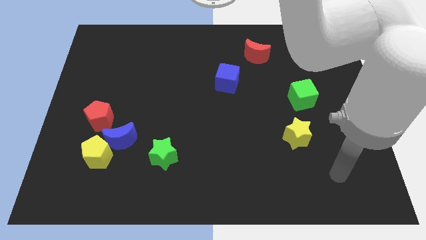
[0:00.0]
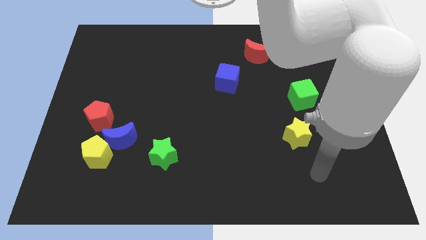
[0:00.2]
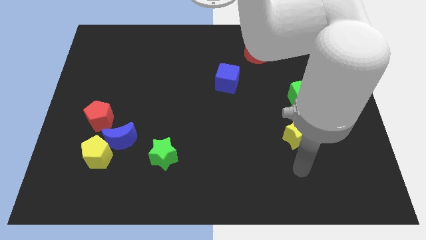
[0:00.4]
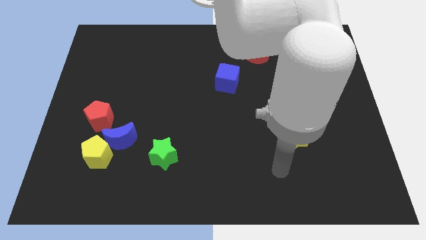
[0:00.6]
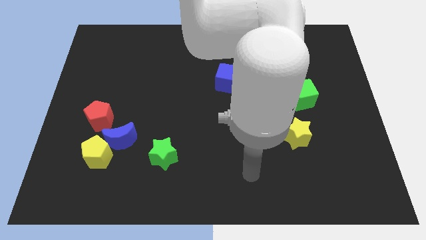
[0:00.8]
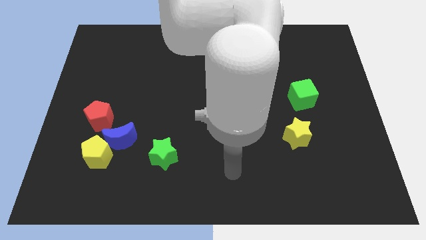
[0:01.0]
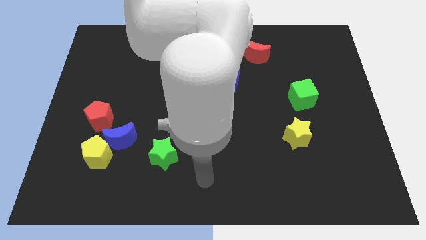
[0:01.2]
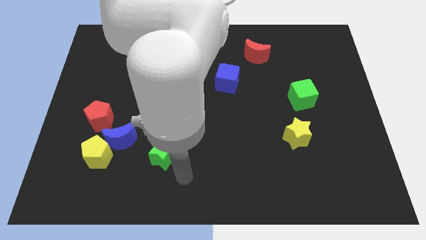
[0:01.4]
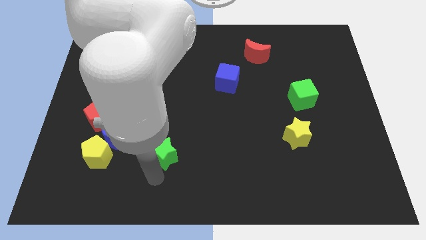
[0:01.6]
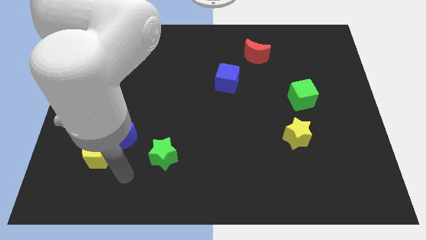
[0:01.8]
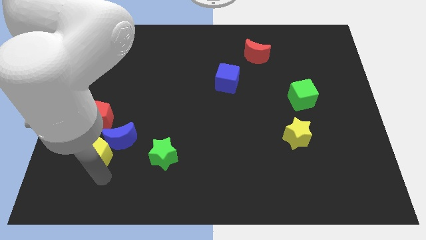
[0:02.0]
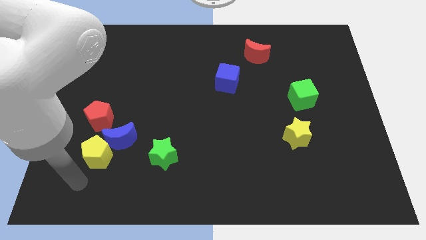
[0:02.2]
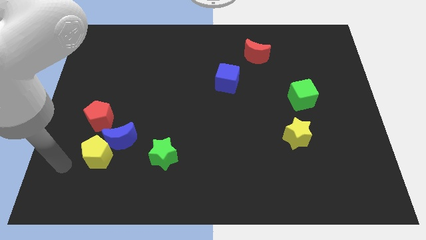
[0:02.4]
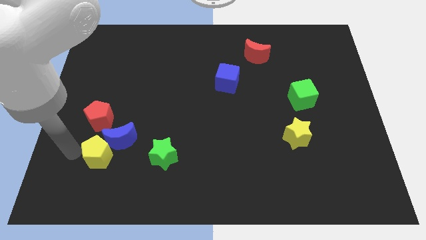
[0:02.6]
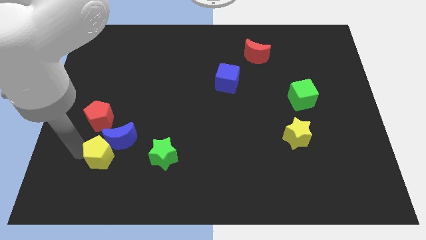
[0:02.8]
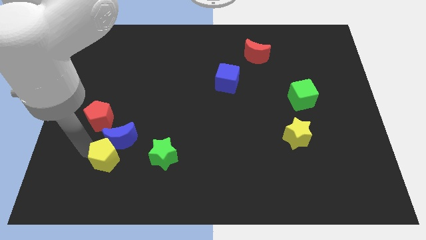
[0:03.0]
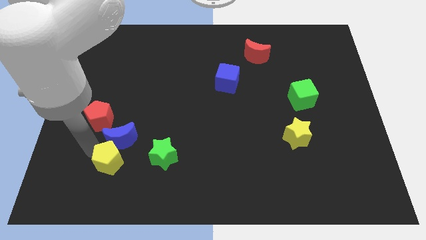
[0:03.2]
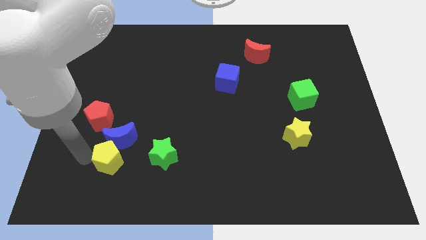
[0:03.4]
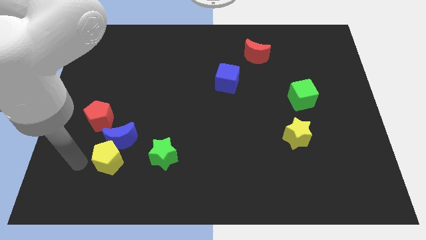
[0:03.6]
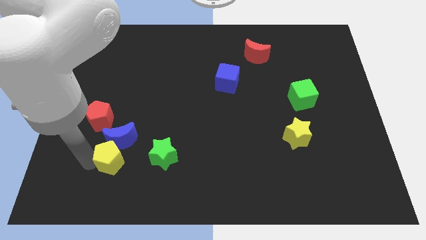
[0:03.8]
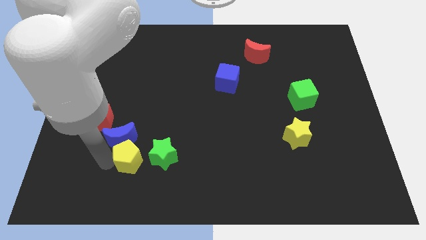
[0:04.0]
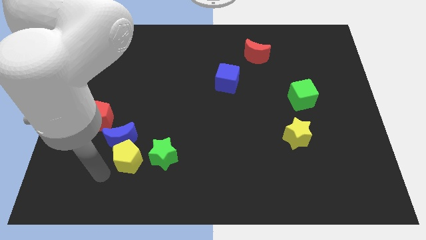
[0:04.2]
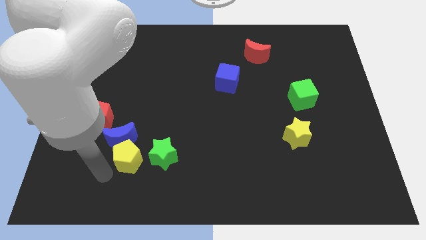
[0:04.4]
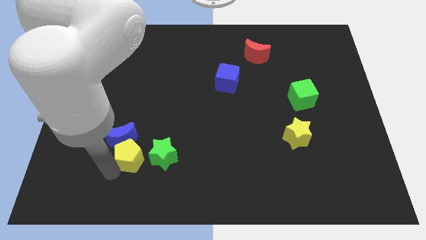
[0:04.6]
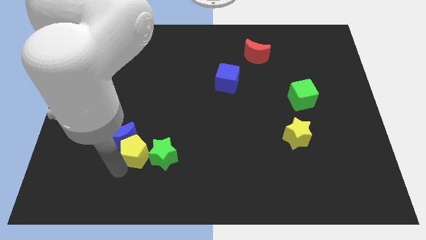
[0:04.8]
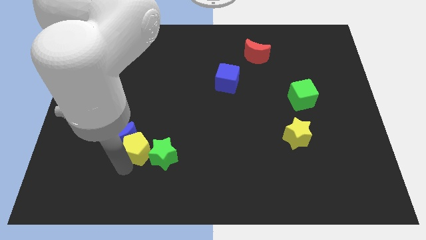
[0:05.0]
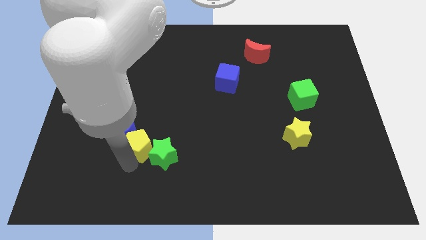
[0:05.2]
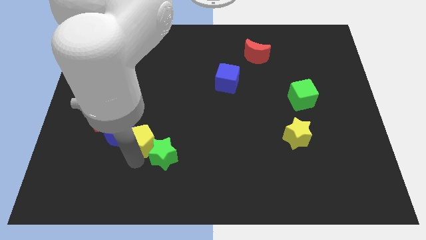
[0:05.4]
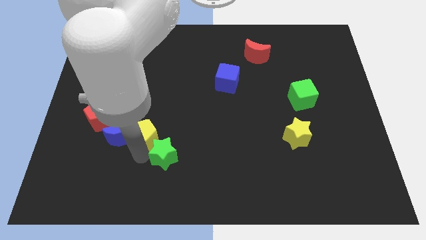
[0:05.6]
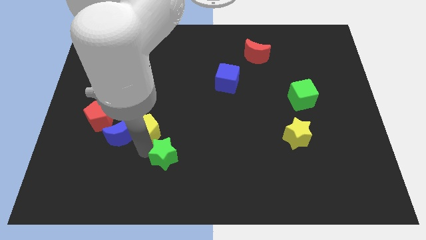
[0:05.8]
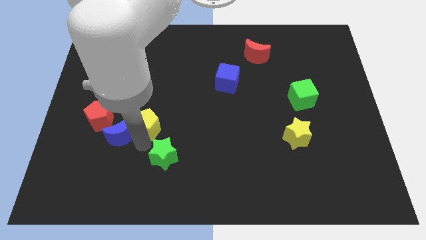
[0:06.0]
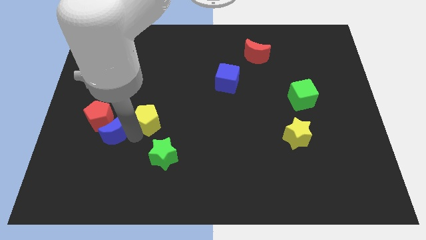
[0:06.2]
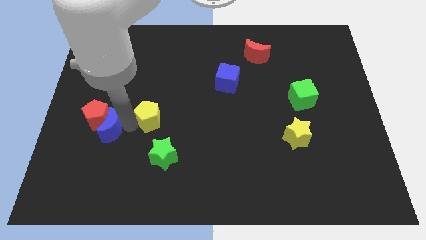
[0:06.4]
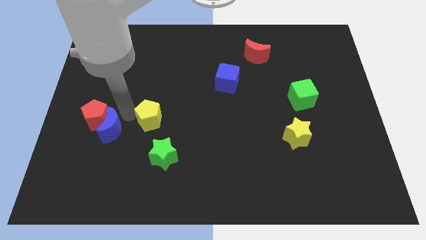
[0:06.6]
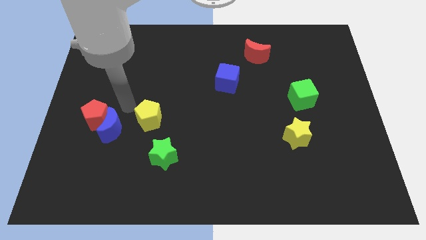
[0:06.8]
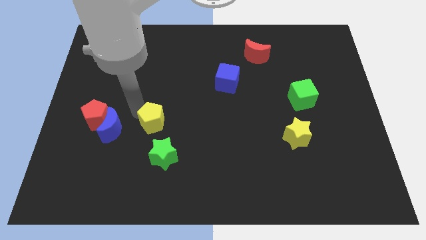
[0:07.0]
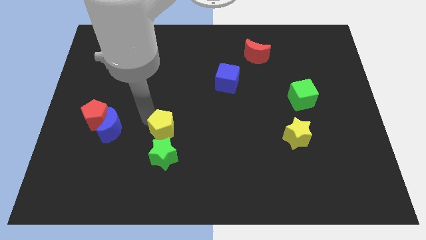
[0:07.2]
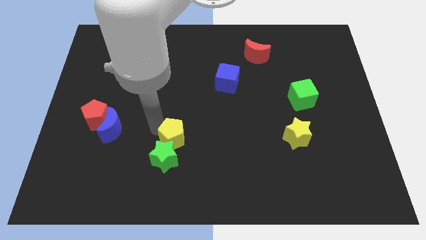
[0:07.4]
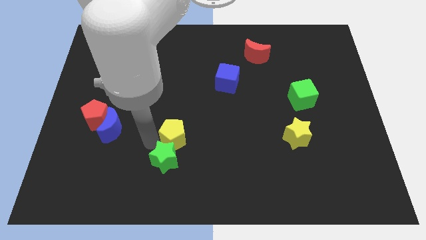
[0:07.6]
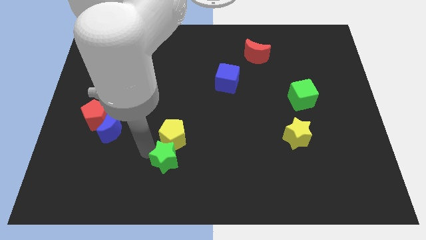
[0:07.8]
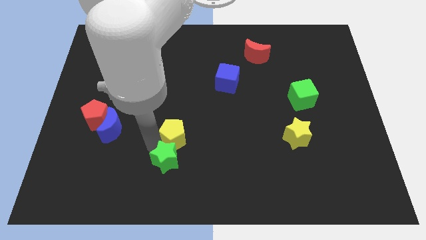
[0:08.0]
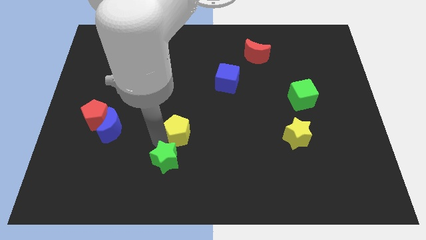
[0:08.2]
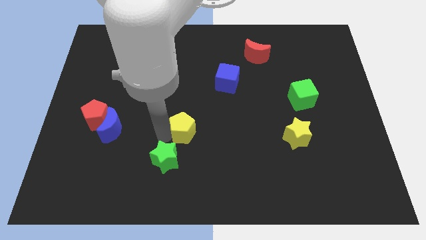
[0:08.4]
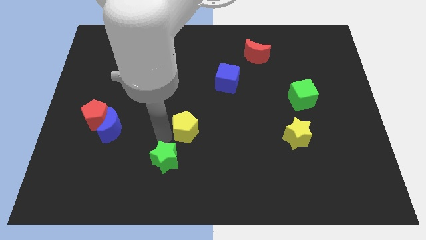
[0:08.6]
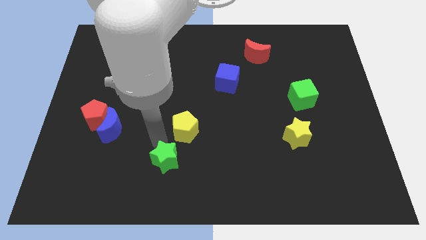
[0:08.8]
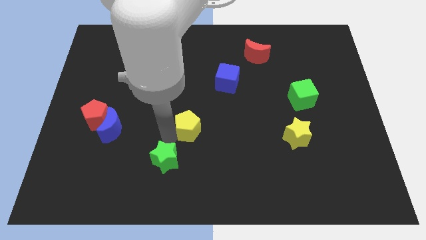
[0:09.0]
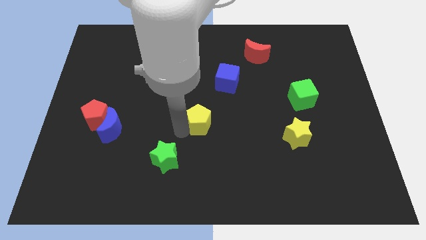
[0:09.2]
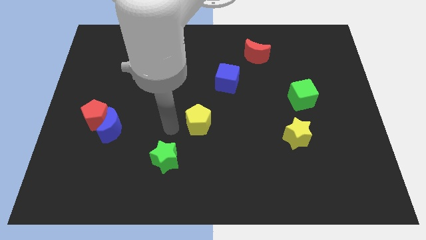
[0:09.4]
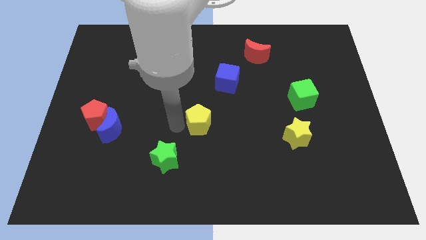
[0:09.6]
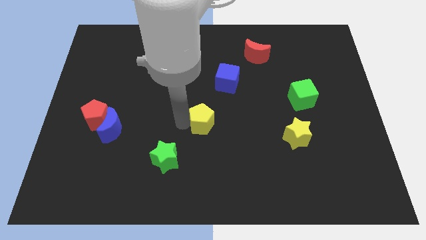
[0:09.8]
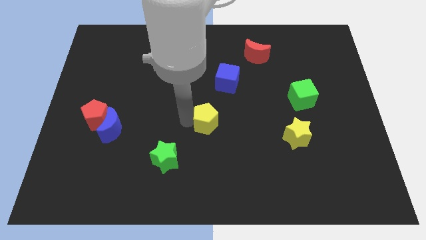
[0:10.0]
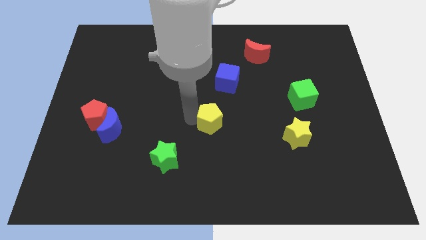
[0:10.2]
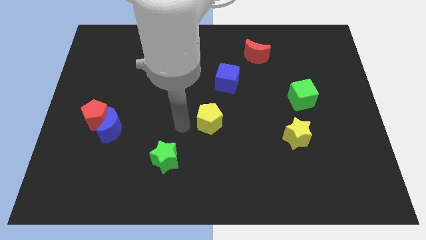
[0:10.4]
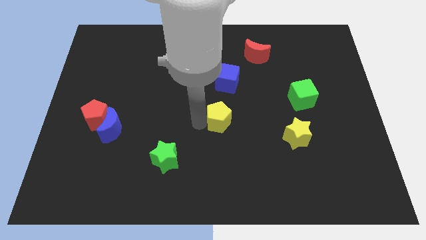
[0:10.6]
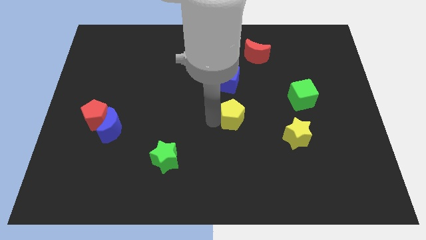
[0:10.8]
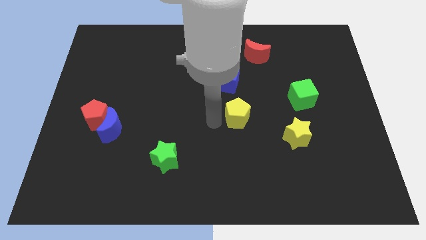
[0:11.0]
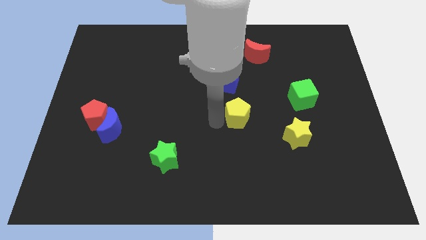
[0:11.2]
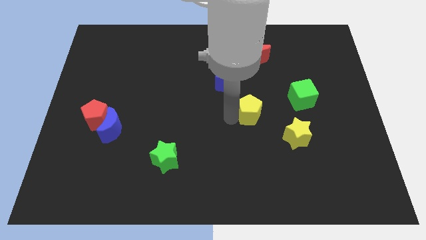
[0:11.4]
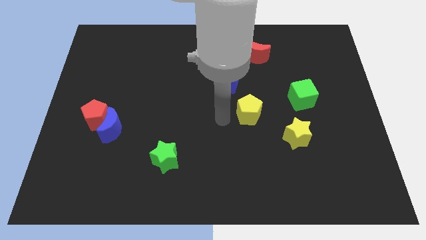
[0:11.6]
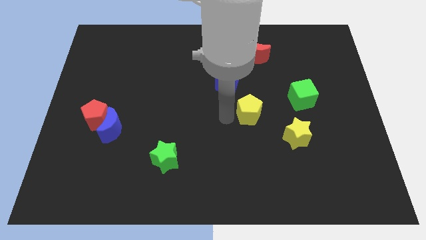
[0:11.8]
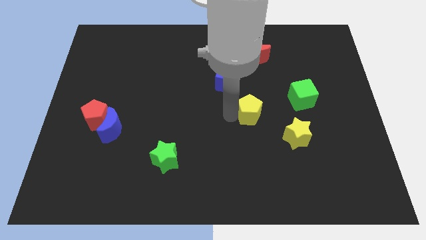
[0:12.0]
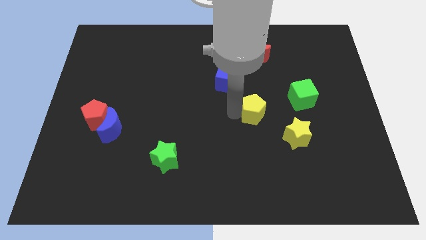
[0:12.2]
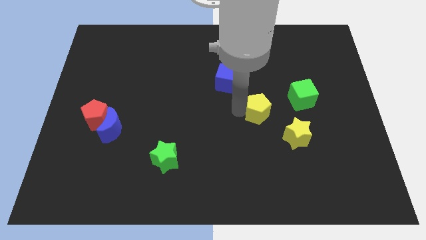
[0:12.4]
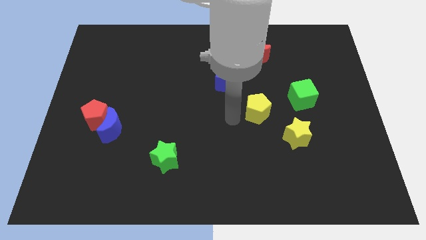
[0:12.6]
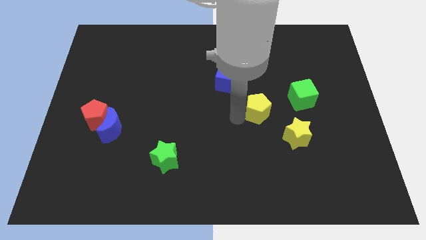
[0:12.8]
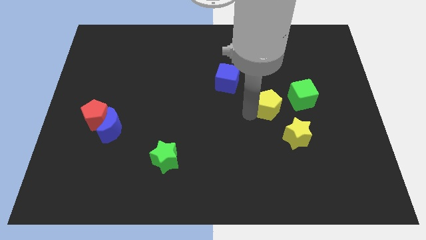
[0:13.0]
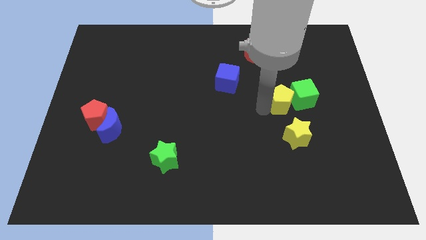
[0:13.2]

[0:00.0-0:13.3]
push the yellow pentagon next to the green cube

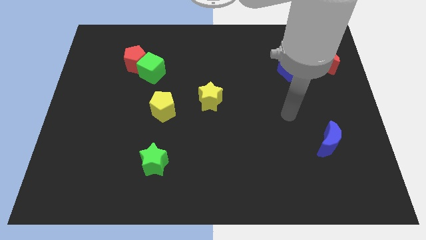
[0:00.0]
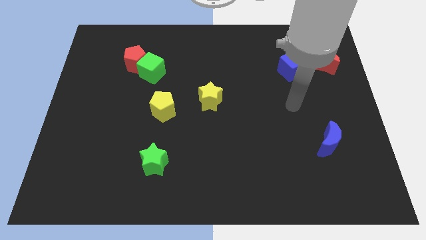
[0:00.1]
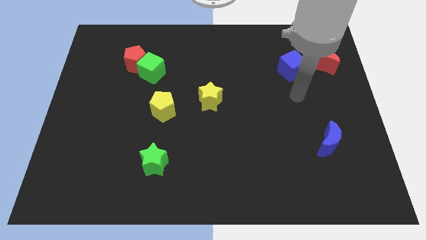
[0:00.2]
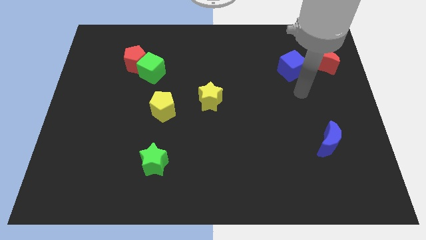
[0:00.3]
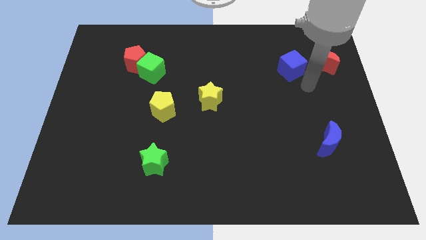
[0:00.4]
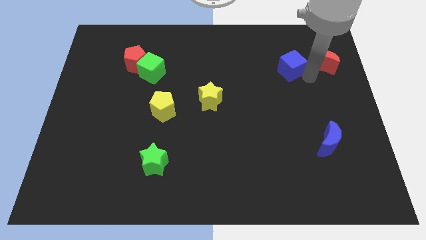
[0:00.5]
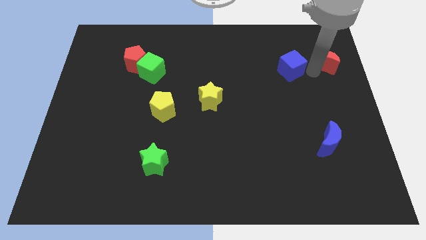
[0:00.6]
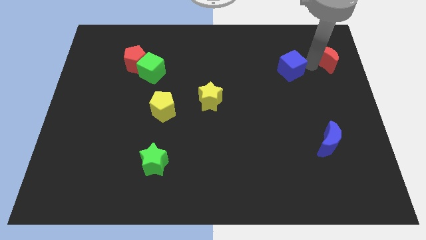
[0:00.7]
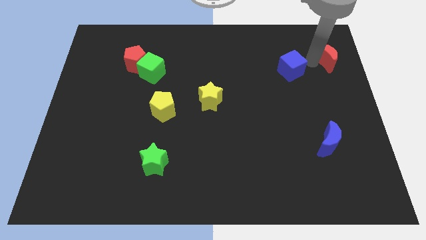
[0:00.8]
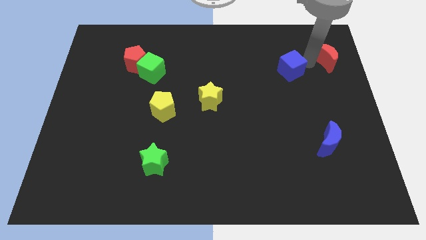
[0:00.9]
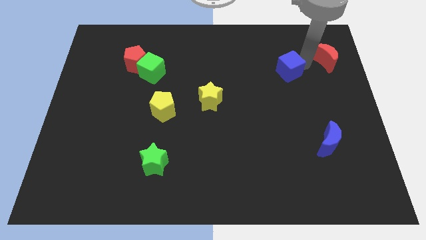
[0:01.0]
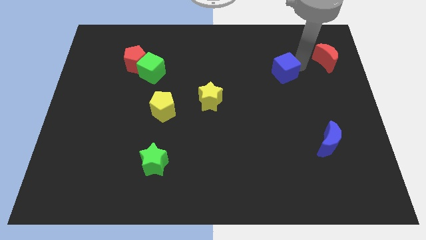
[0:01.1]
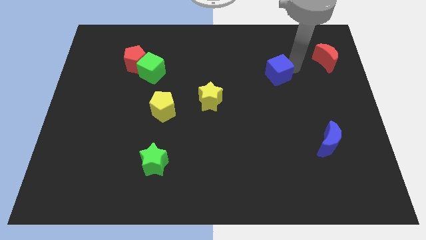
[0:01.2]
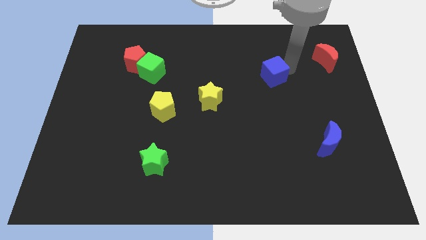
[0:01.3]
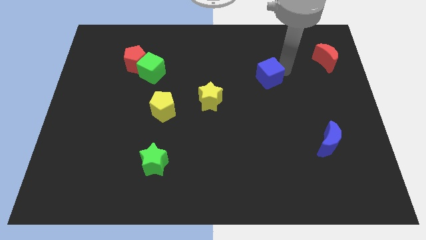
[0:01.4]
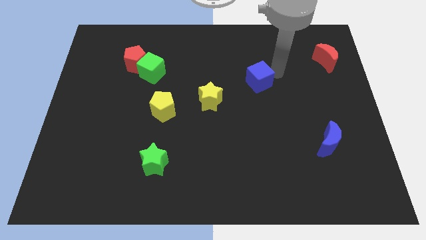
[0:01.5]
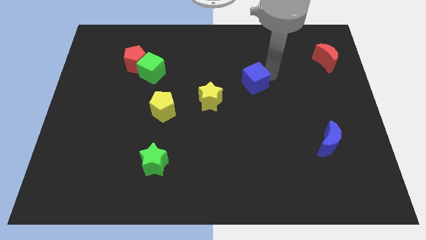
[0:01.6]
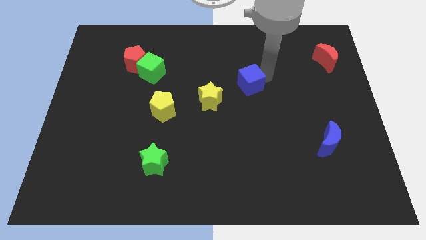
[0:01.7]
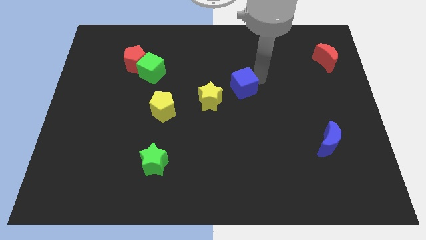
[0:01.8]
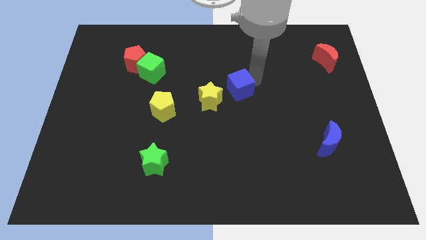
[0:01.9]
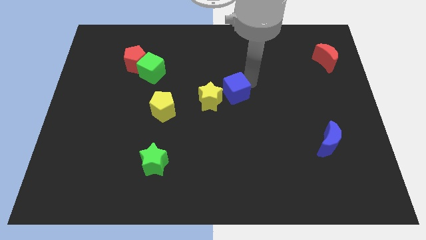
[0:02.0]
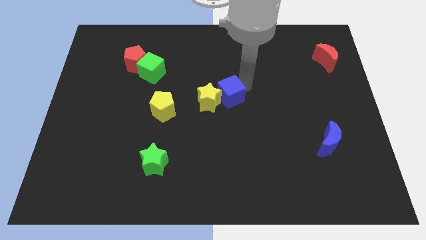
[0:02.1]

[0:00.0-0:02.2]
put the blue cube towards the yellow star
